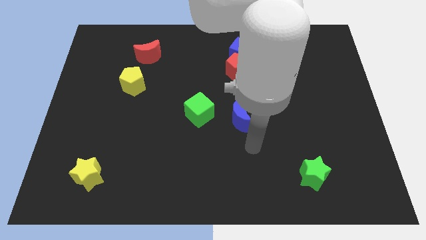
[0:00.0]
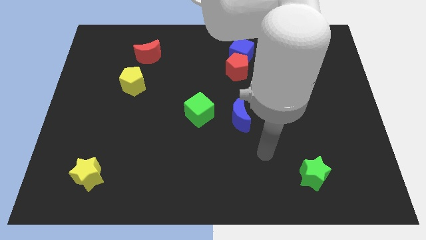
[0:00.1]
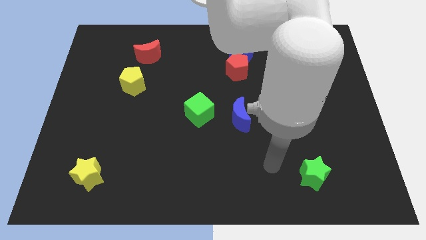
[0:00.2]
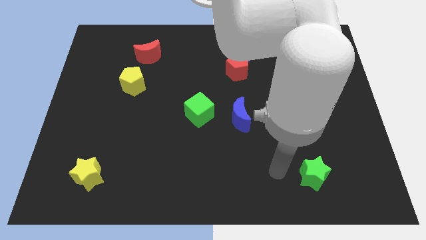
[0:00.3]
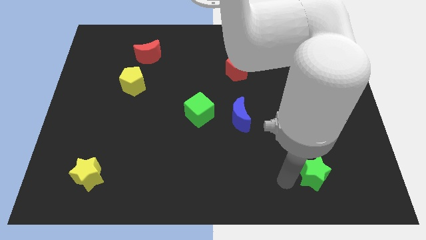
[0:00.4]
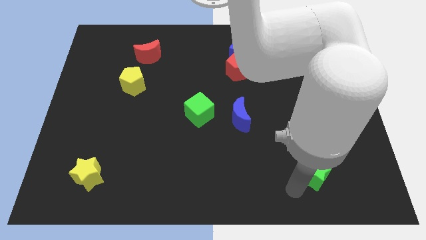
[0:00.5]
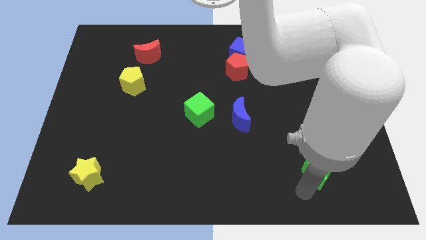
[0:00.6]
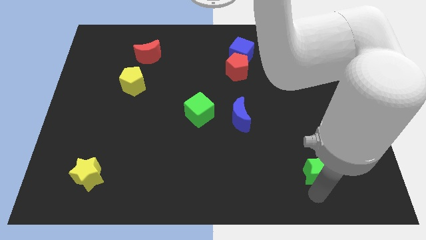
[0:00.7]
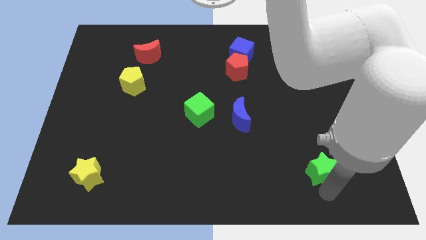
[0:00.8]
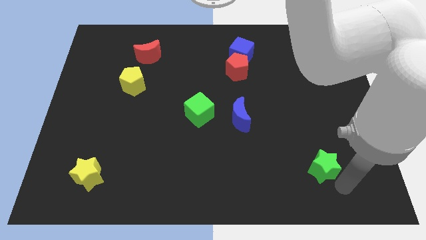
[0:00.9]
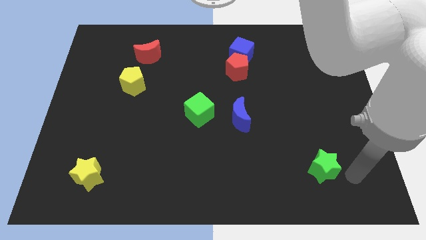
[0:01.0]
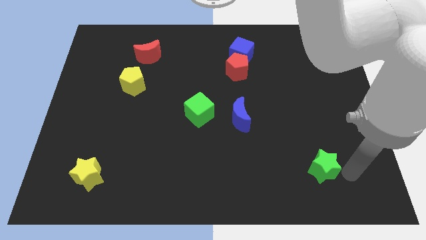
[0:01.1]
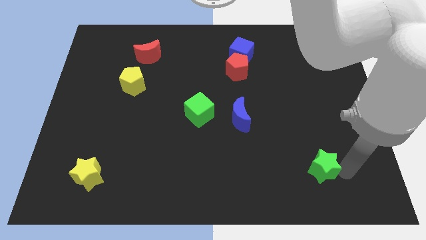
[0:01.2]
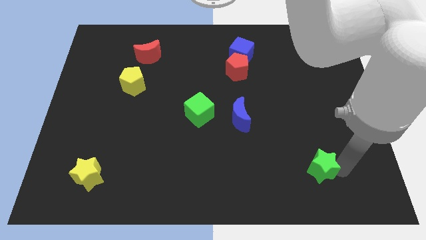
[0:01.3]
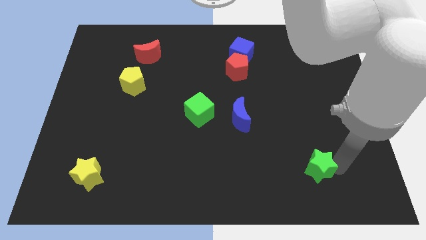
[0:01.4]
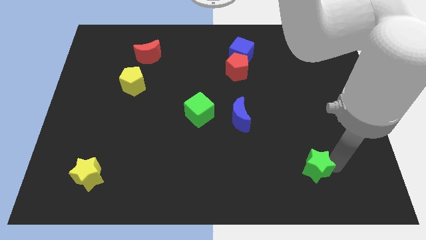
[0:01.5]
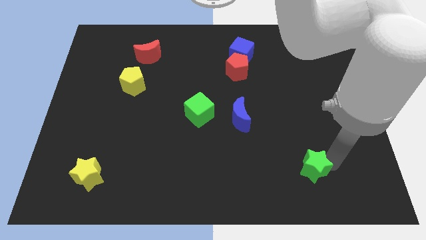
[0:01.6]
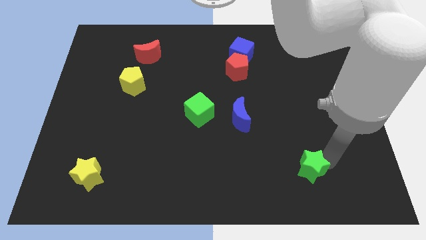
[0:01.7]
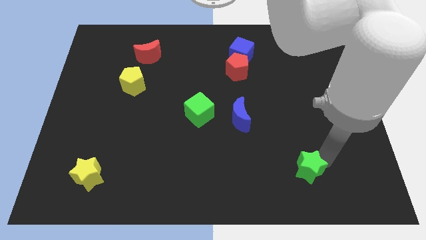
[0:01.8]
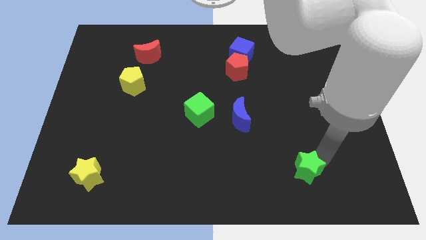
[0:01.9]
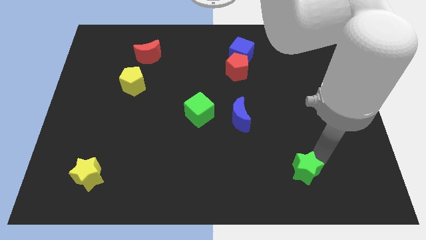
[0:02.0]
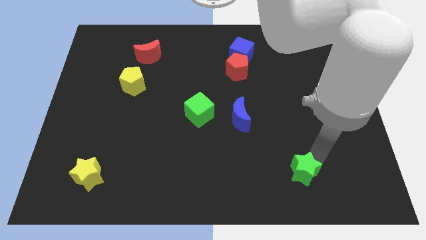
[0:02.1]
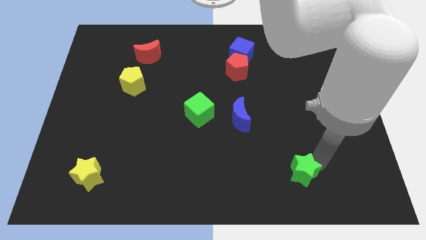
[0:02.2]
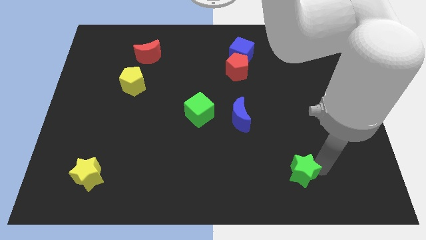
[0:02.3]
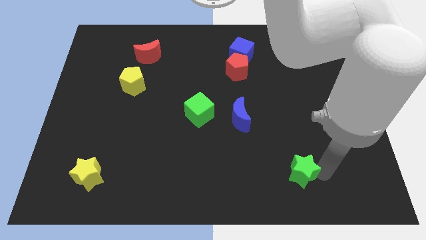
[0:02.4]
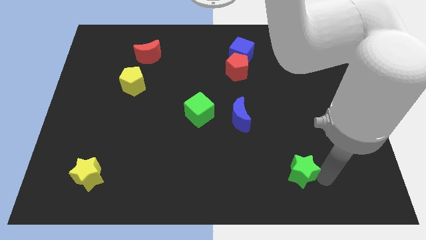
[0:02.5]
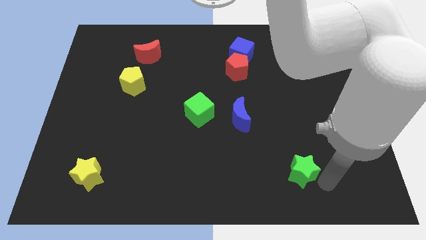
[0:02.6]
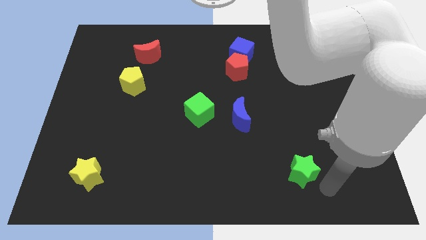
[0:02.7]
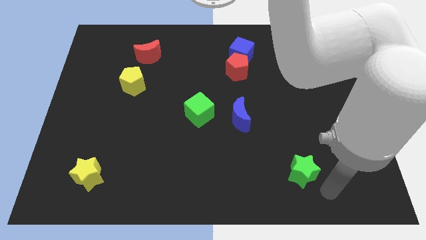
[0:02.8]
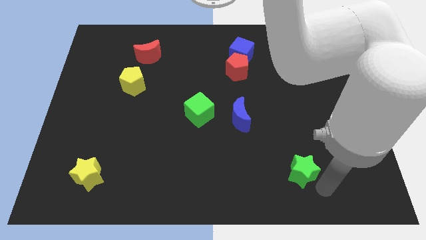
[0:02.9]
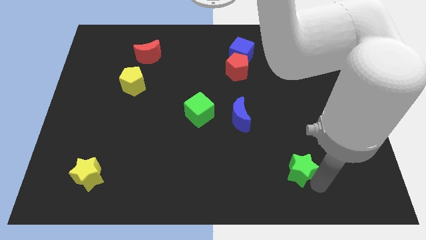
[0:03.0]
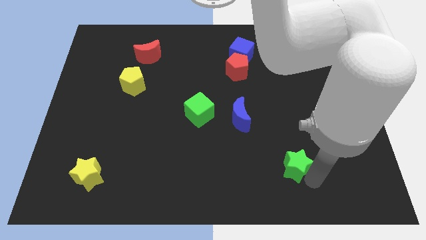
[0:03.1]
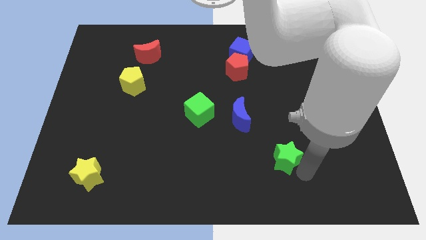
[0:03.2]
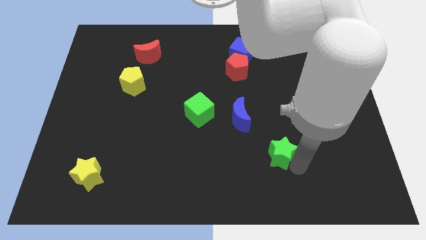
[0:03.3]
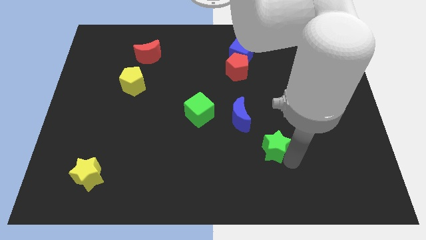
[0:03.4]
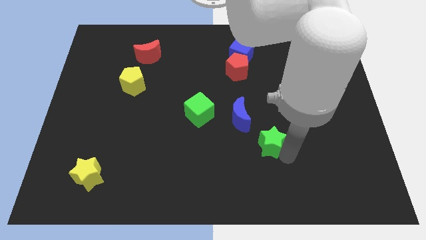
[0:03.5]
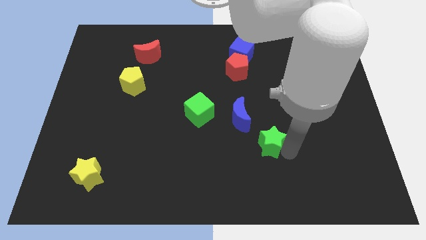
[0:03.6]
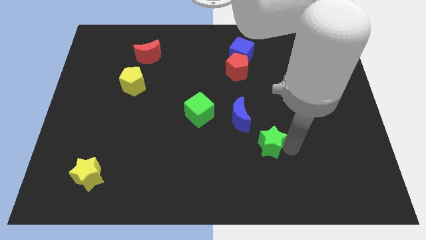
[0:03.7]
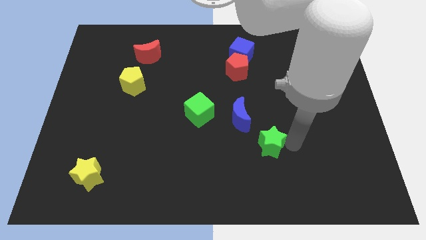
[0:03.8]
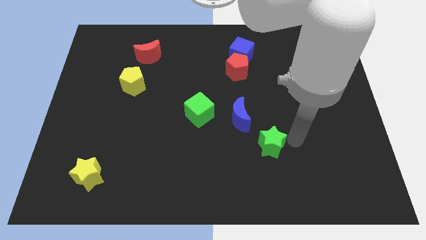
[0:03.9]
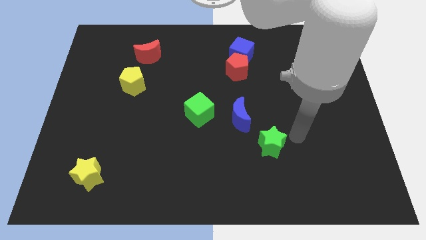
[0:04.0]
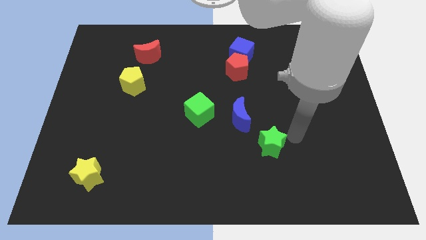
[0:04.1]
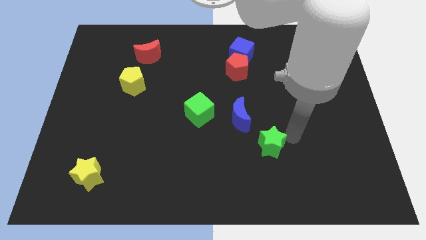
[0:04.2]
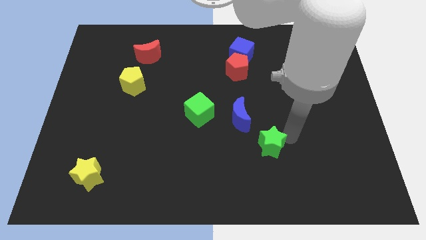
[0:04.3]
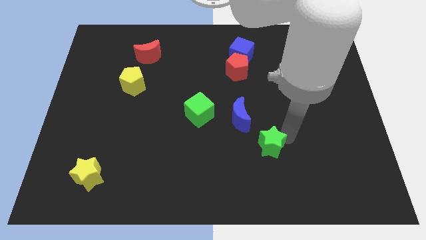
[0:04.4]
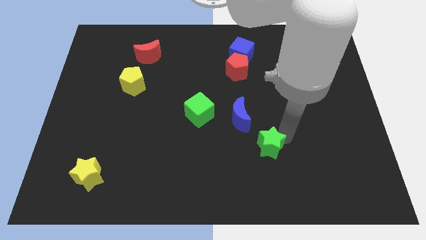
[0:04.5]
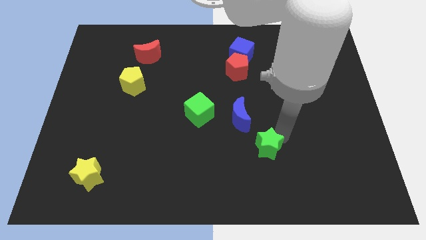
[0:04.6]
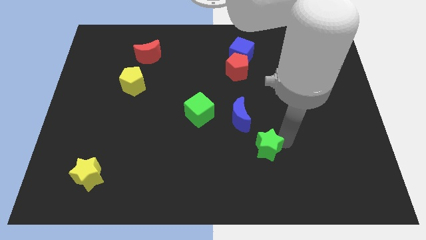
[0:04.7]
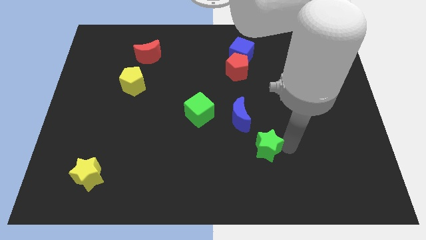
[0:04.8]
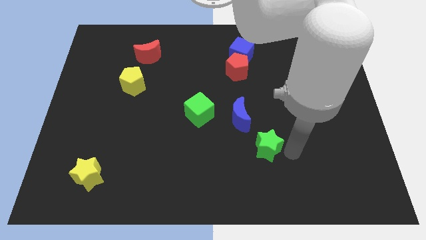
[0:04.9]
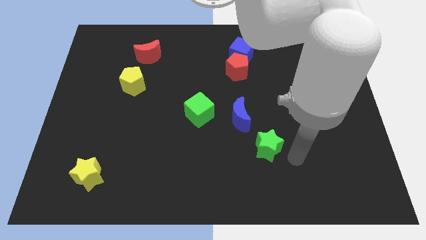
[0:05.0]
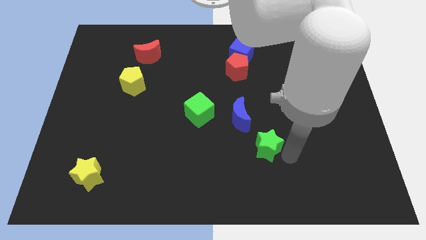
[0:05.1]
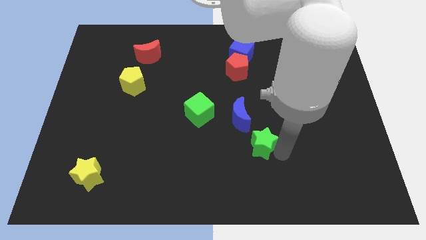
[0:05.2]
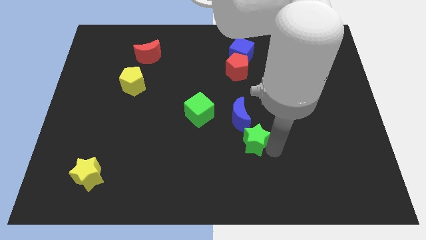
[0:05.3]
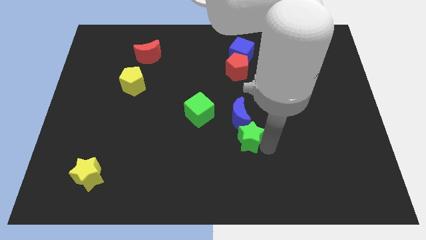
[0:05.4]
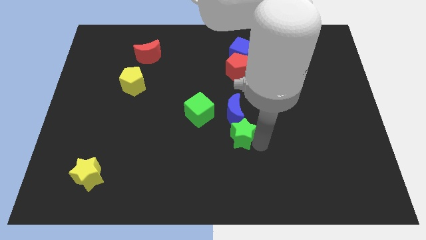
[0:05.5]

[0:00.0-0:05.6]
push the green star to the center of the board

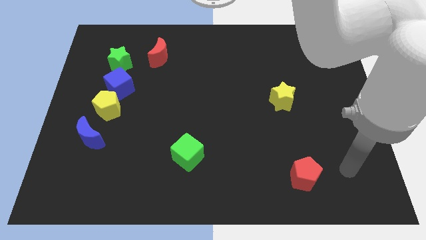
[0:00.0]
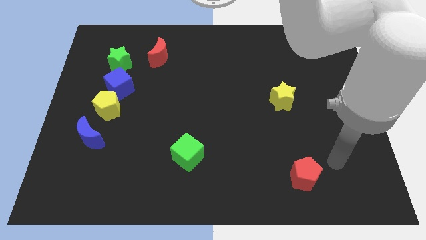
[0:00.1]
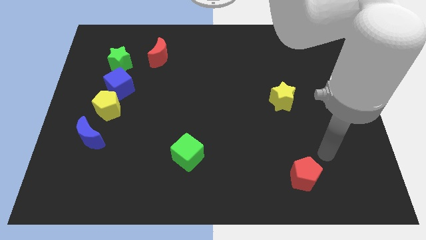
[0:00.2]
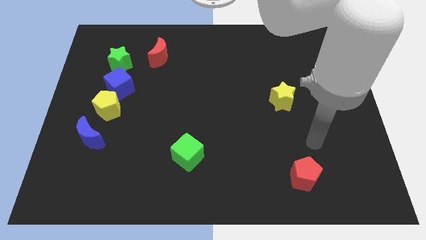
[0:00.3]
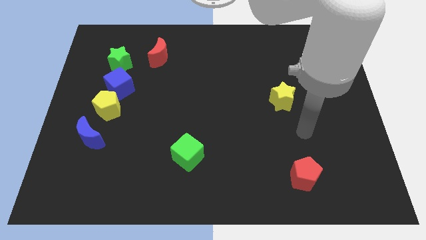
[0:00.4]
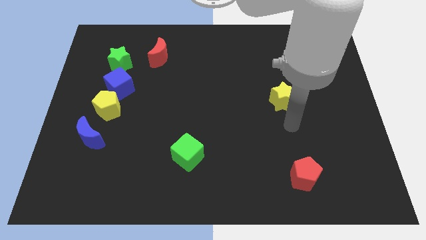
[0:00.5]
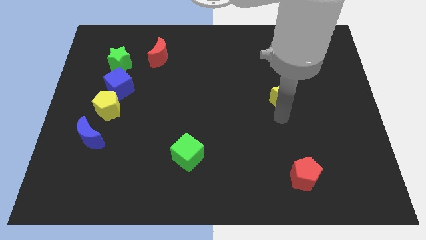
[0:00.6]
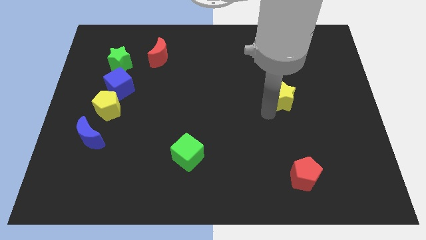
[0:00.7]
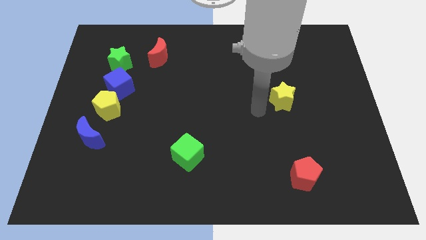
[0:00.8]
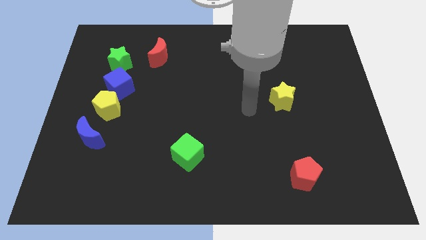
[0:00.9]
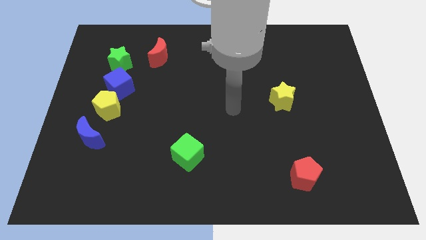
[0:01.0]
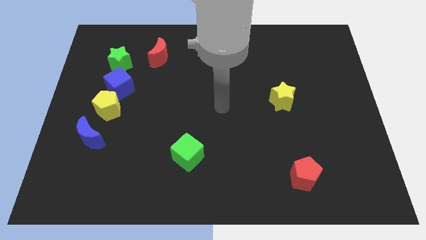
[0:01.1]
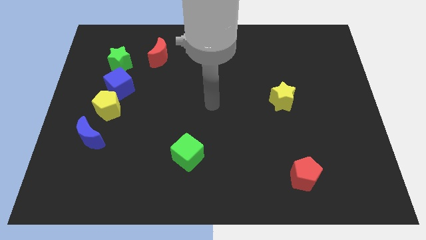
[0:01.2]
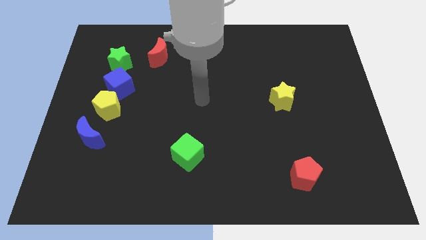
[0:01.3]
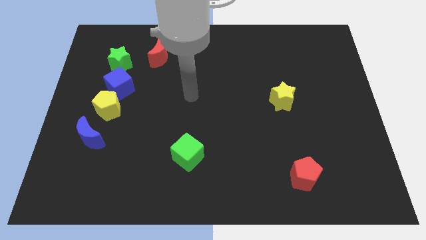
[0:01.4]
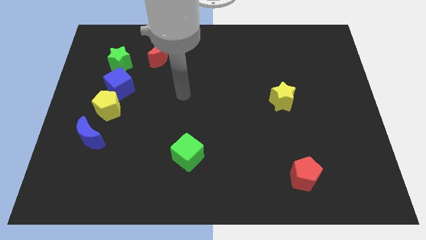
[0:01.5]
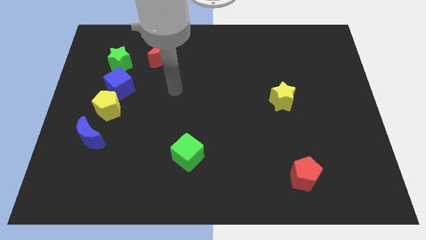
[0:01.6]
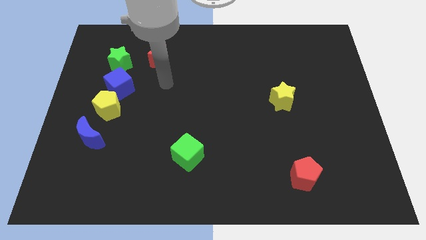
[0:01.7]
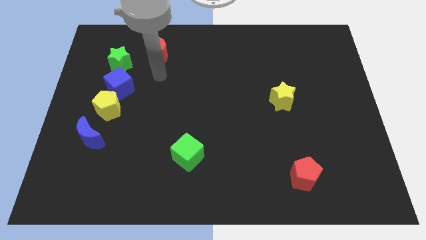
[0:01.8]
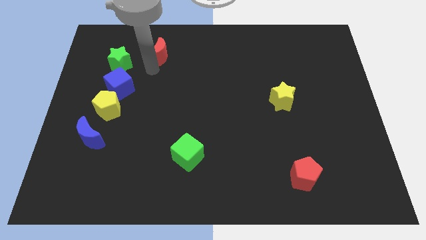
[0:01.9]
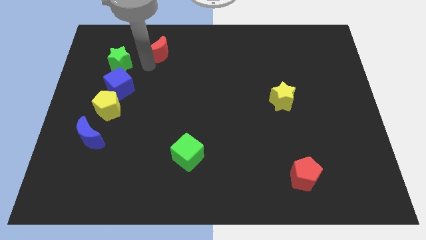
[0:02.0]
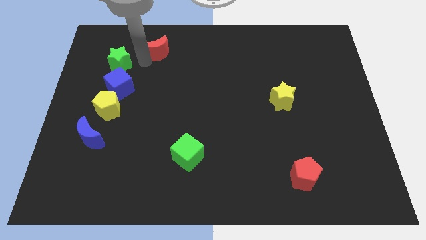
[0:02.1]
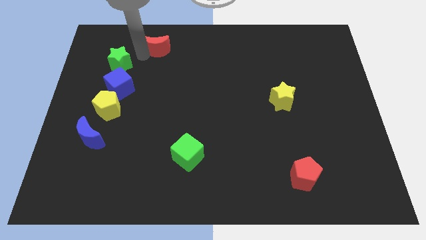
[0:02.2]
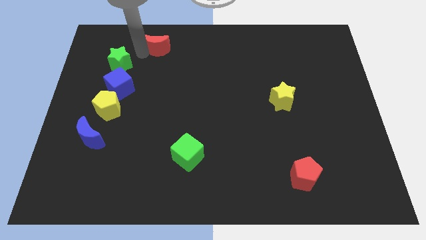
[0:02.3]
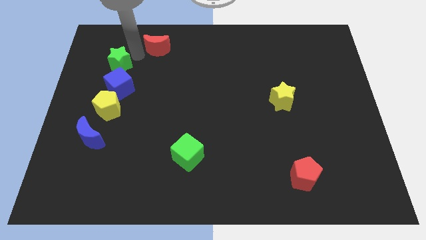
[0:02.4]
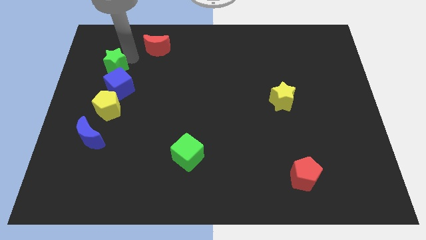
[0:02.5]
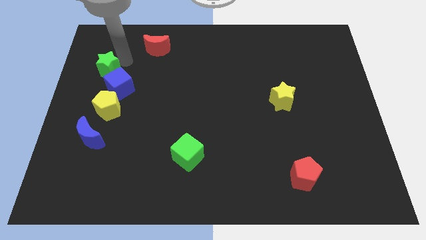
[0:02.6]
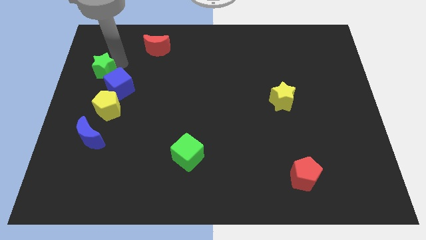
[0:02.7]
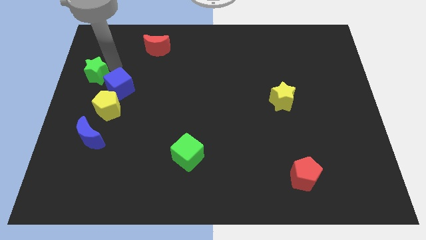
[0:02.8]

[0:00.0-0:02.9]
push the green star to the left side of the board
